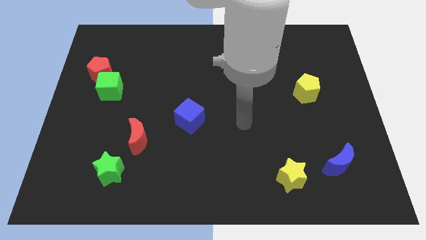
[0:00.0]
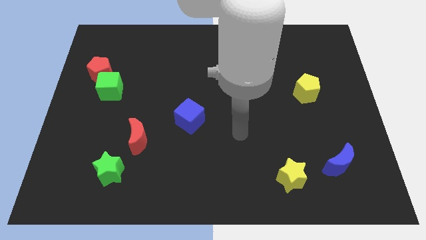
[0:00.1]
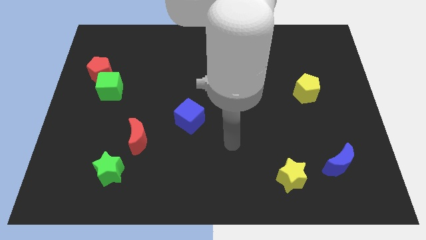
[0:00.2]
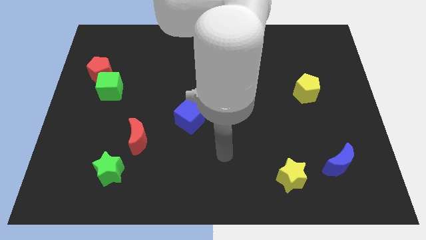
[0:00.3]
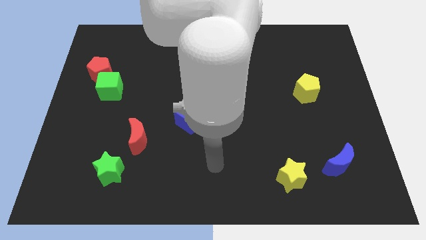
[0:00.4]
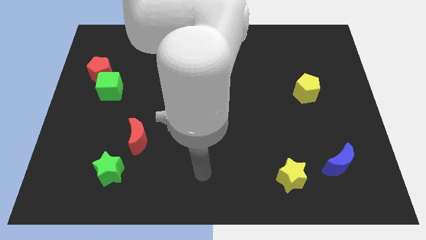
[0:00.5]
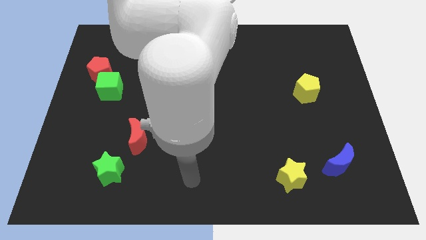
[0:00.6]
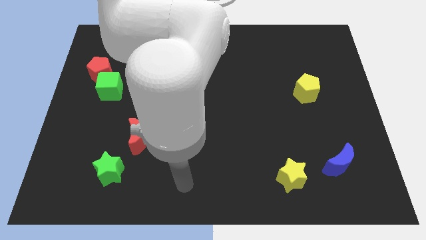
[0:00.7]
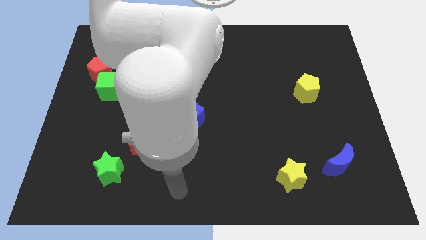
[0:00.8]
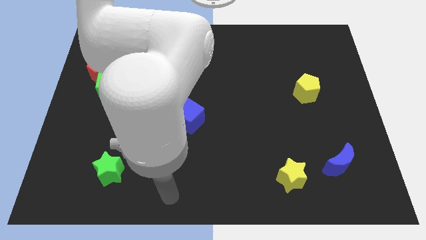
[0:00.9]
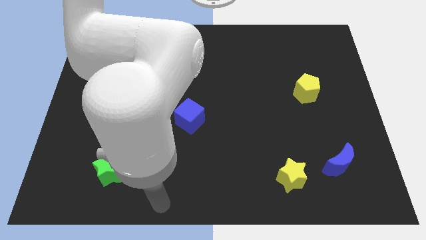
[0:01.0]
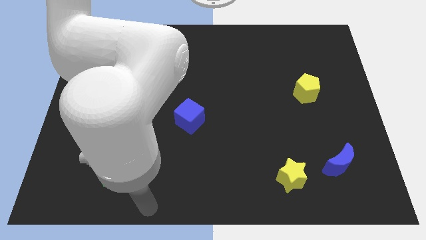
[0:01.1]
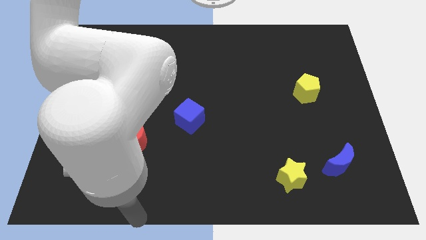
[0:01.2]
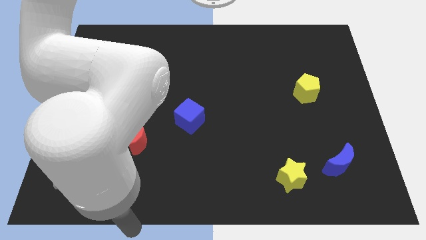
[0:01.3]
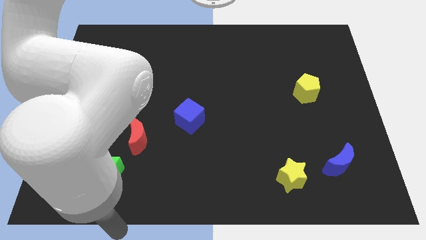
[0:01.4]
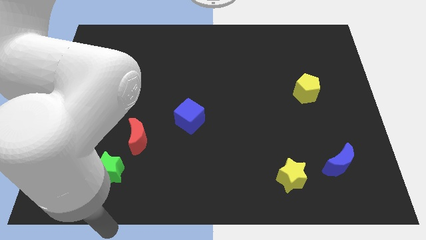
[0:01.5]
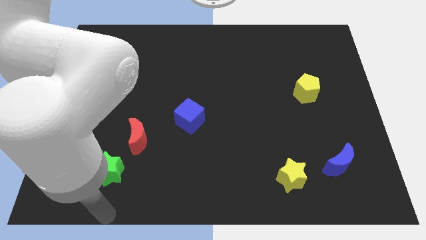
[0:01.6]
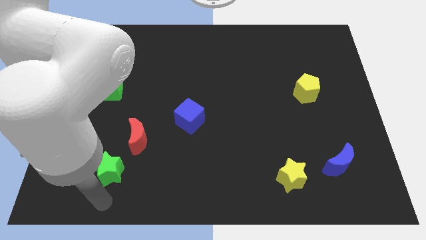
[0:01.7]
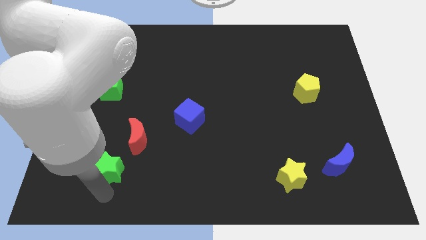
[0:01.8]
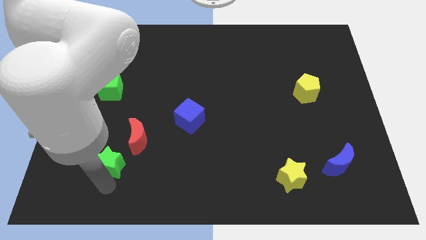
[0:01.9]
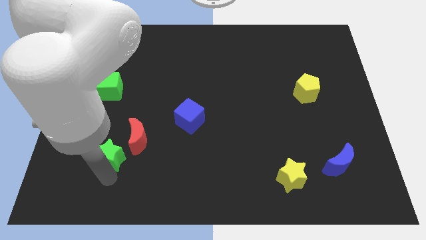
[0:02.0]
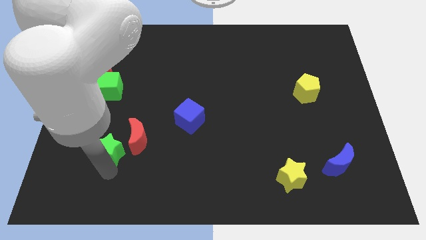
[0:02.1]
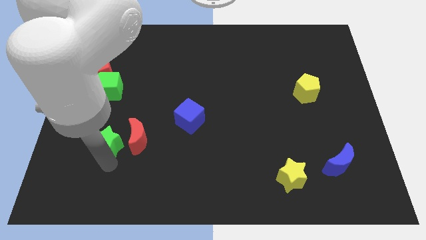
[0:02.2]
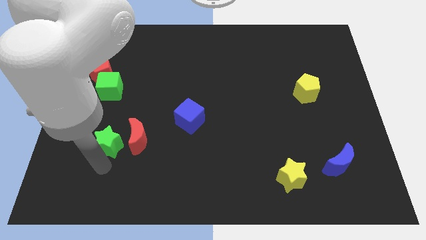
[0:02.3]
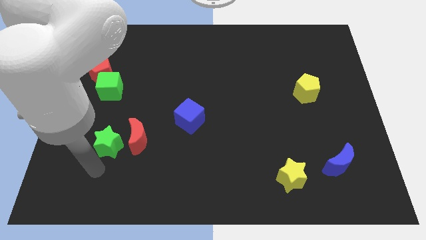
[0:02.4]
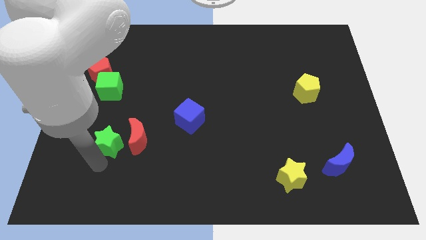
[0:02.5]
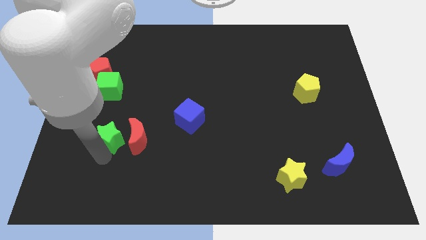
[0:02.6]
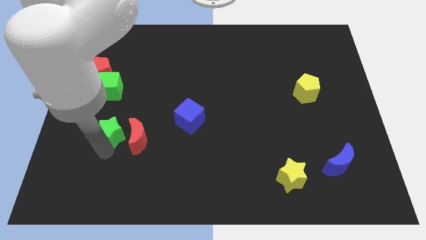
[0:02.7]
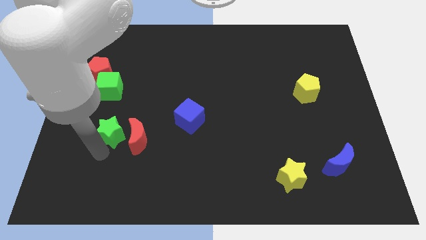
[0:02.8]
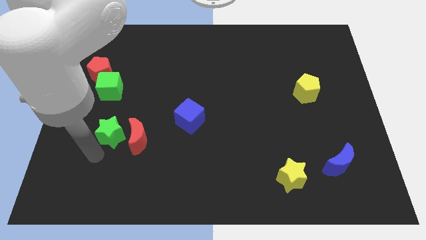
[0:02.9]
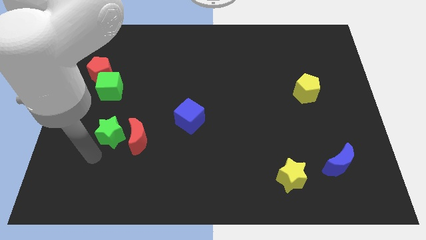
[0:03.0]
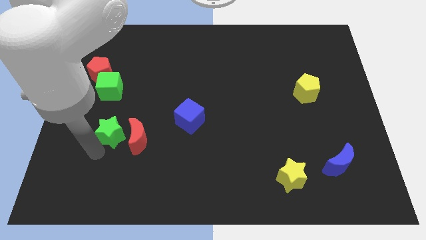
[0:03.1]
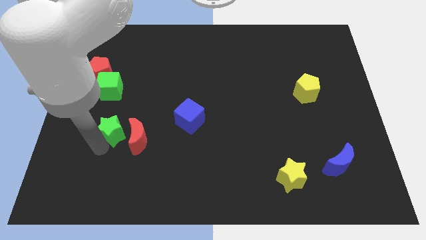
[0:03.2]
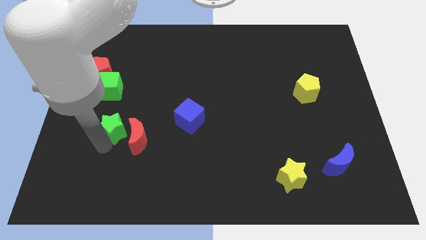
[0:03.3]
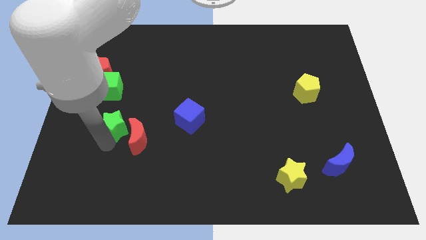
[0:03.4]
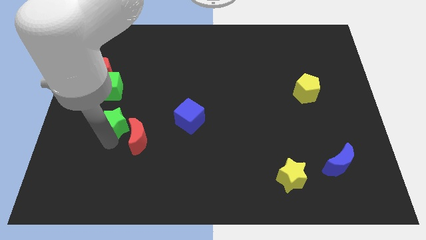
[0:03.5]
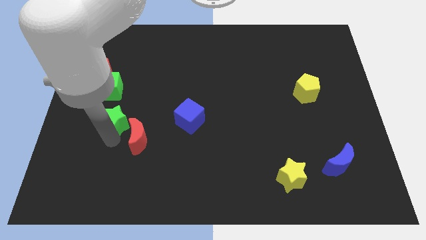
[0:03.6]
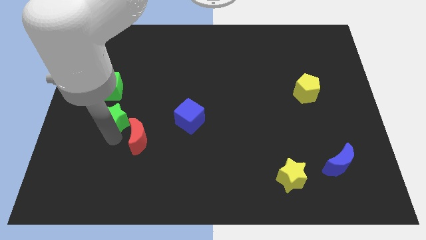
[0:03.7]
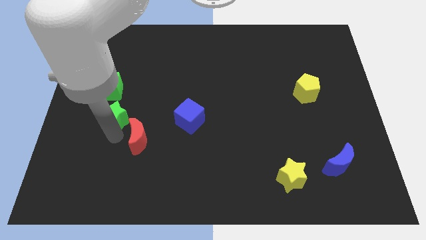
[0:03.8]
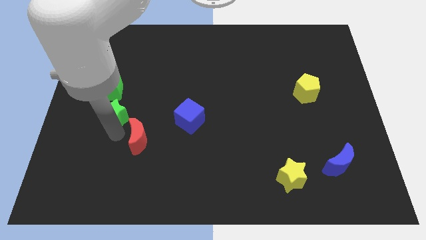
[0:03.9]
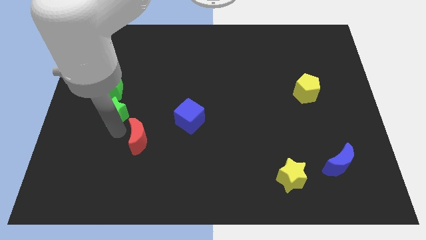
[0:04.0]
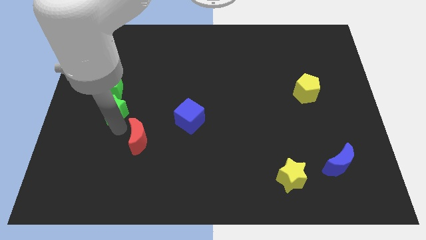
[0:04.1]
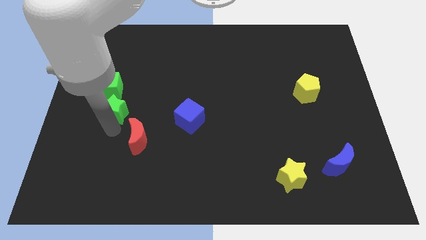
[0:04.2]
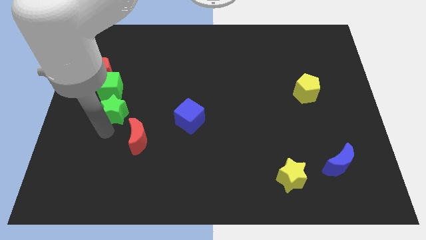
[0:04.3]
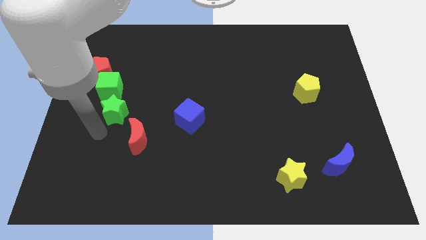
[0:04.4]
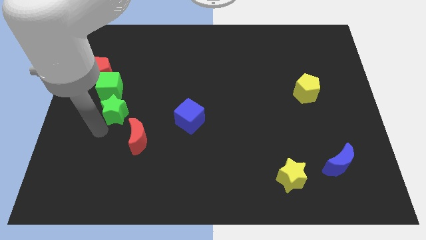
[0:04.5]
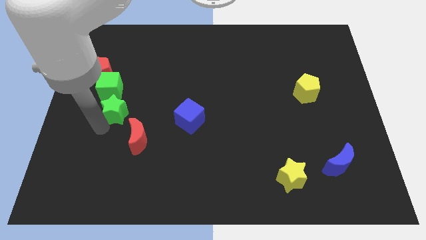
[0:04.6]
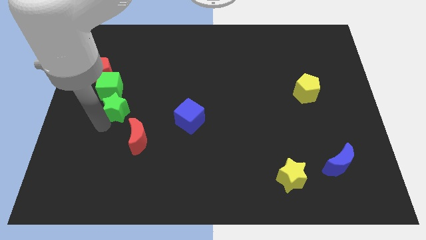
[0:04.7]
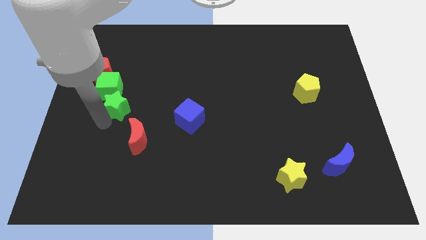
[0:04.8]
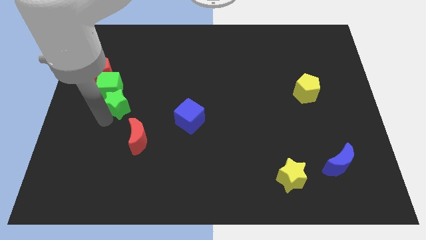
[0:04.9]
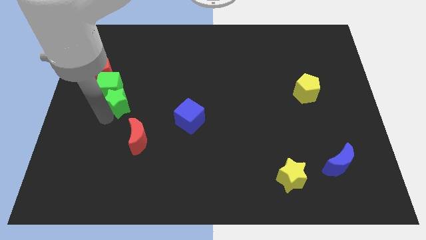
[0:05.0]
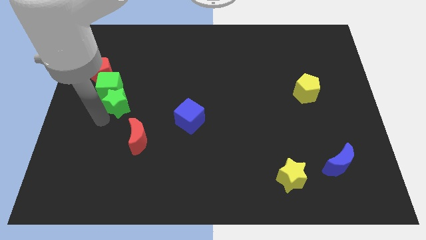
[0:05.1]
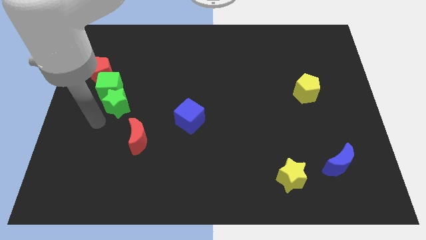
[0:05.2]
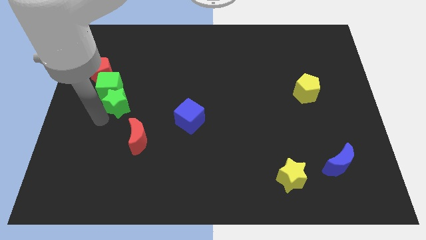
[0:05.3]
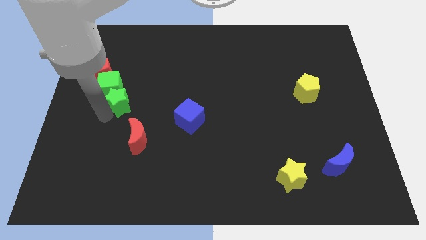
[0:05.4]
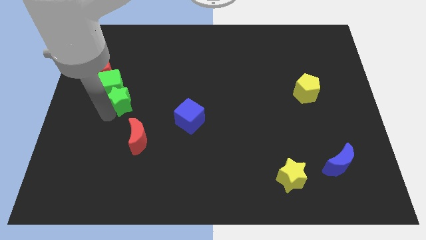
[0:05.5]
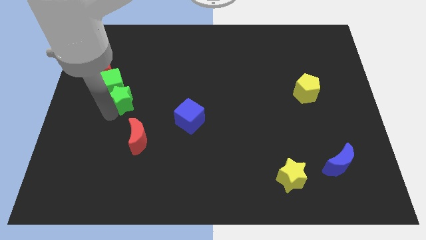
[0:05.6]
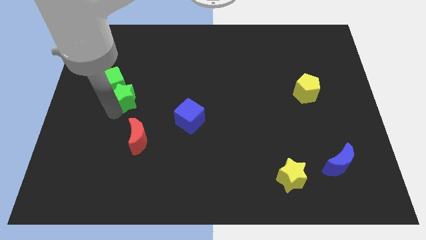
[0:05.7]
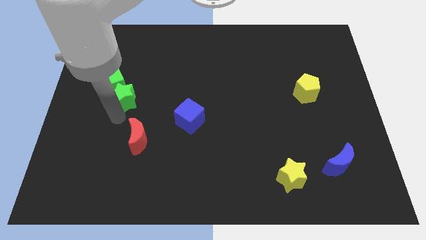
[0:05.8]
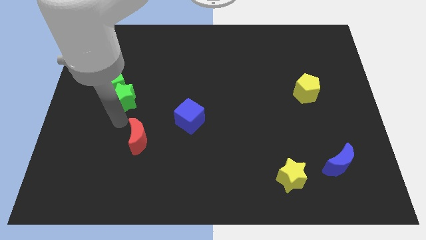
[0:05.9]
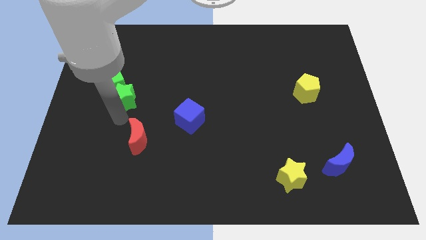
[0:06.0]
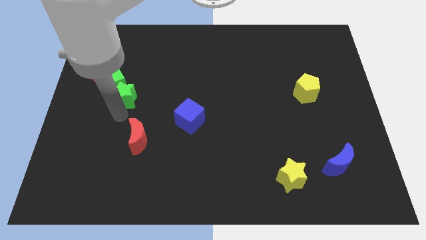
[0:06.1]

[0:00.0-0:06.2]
move the green star up

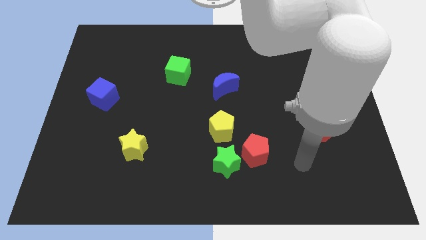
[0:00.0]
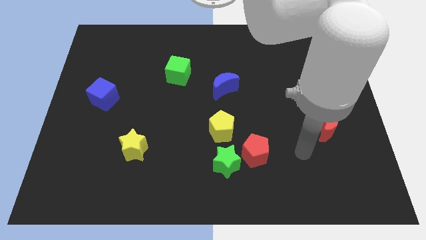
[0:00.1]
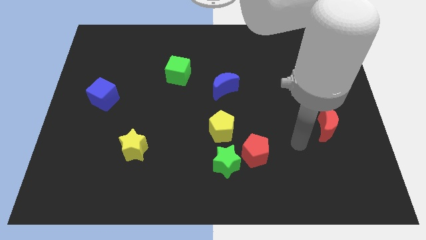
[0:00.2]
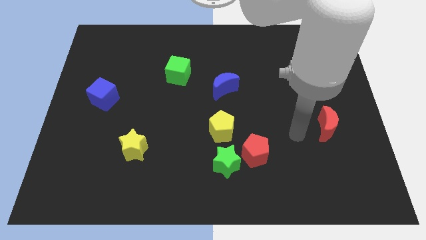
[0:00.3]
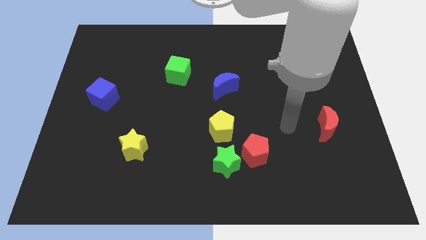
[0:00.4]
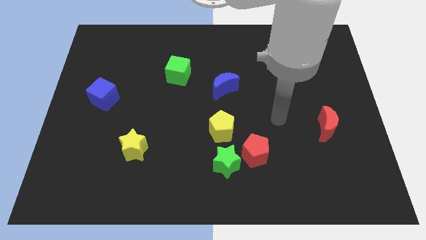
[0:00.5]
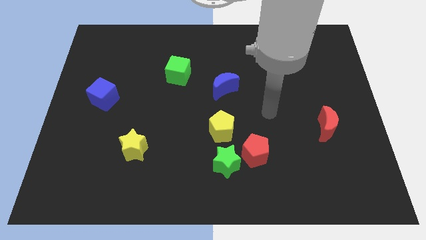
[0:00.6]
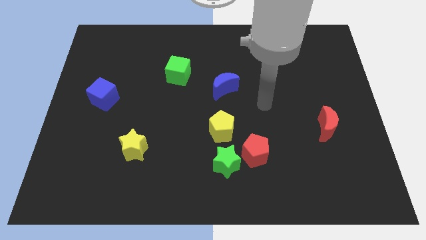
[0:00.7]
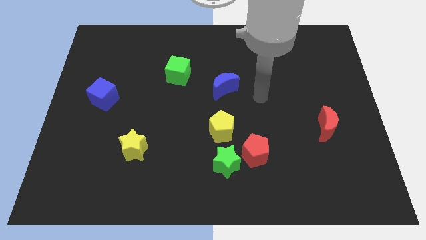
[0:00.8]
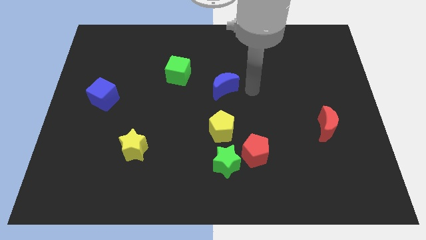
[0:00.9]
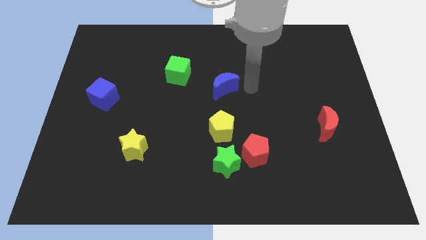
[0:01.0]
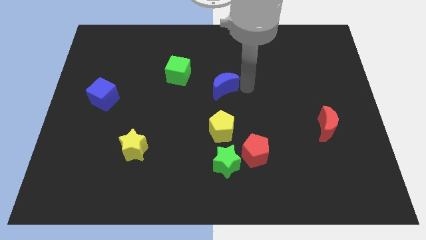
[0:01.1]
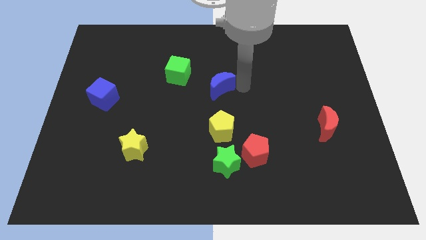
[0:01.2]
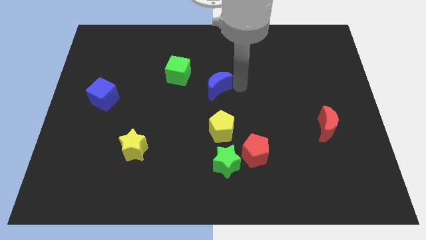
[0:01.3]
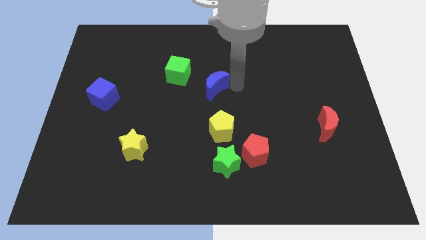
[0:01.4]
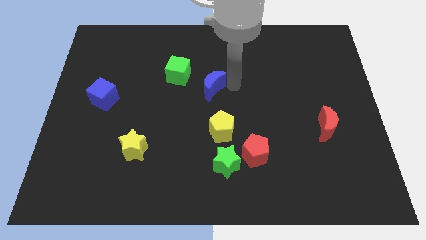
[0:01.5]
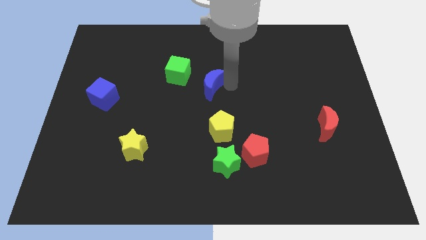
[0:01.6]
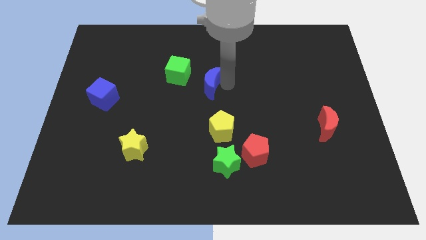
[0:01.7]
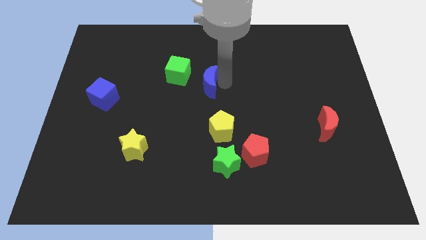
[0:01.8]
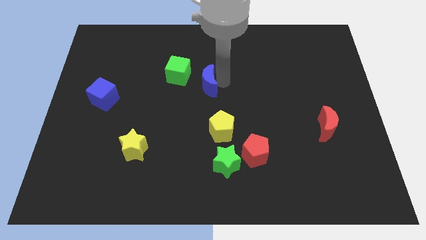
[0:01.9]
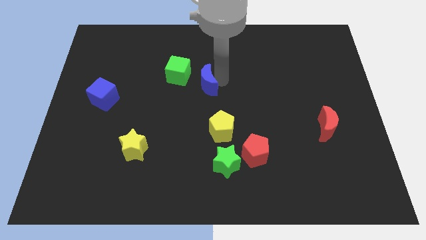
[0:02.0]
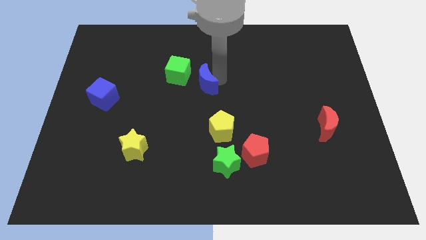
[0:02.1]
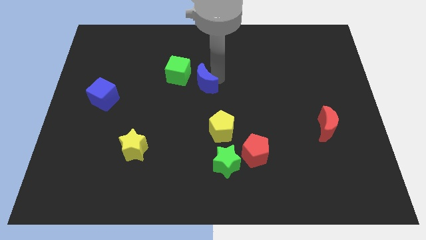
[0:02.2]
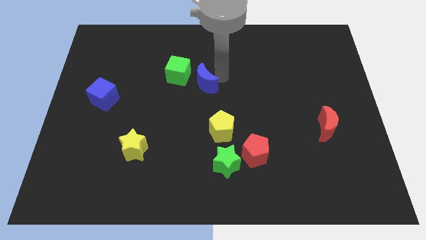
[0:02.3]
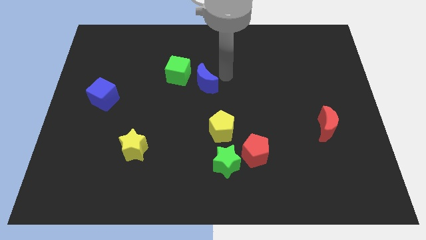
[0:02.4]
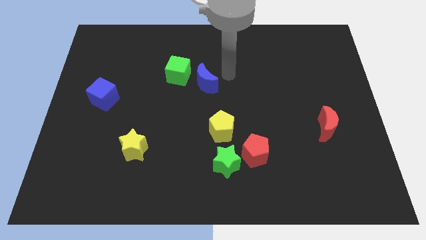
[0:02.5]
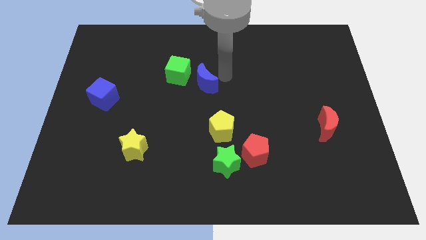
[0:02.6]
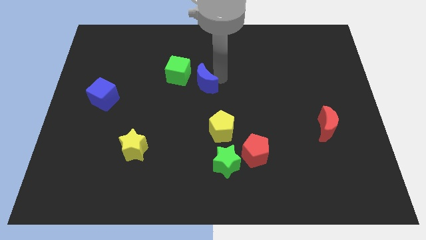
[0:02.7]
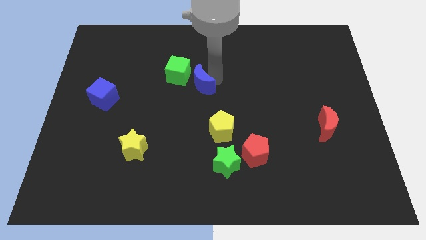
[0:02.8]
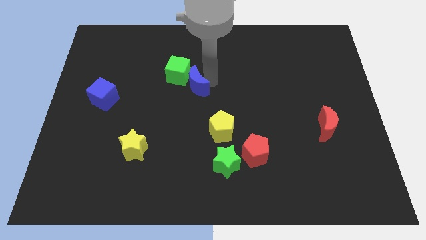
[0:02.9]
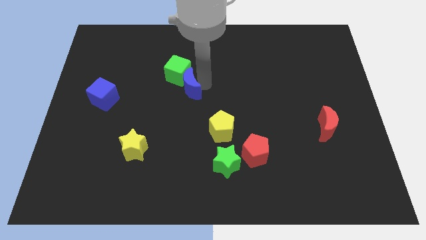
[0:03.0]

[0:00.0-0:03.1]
slightly push the blue moon left
